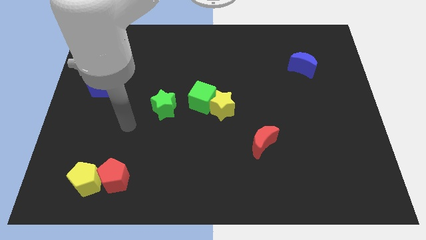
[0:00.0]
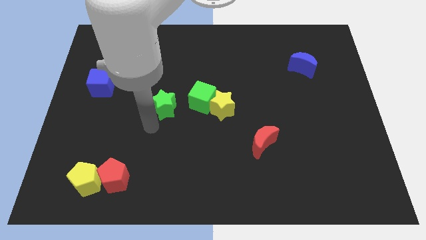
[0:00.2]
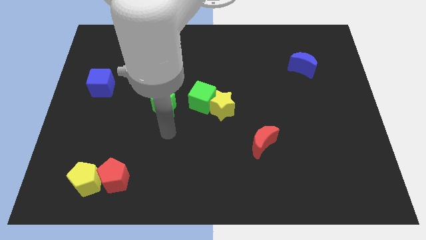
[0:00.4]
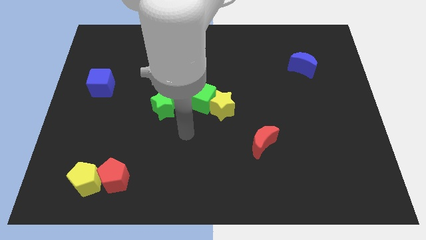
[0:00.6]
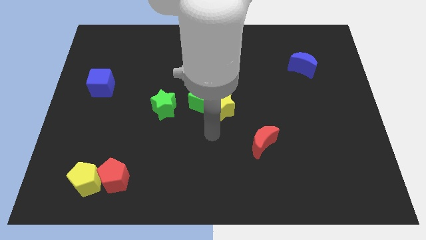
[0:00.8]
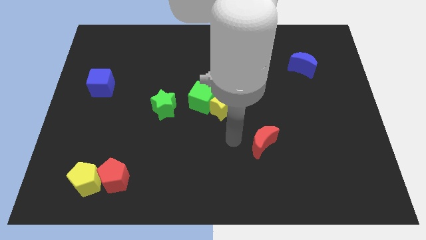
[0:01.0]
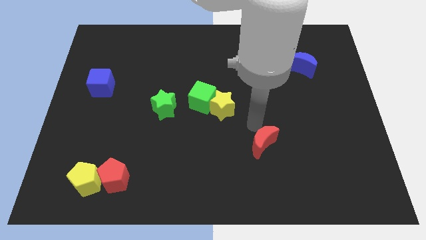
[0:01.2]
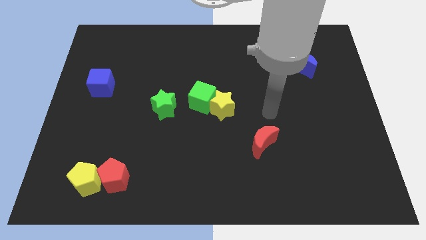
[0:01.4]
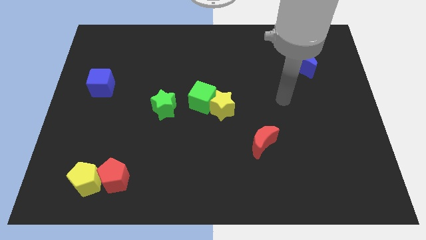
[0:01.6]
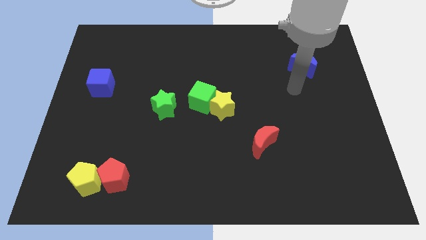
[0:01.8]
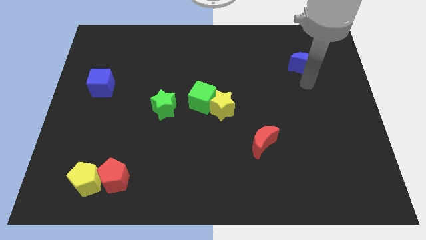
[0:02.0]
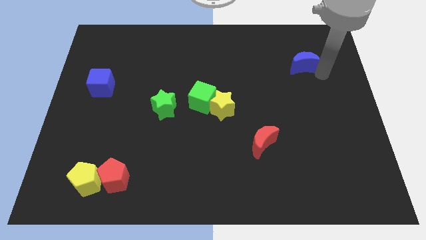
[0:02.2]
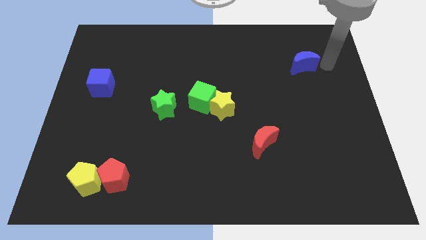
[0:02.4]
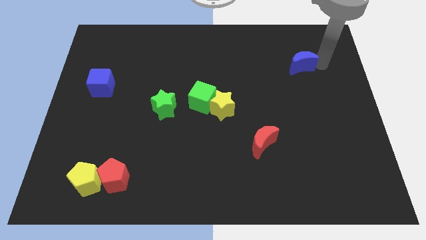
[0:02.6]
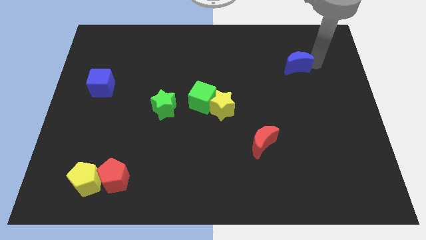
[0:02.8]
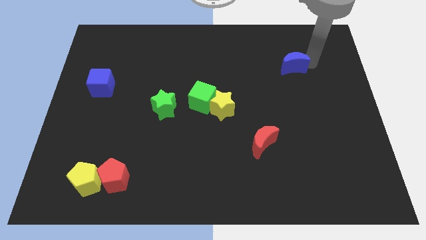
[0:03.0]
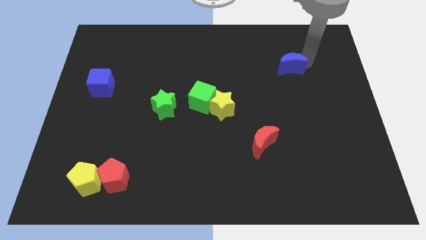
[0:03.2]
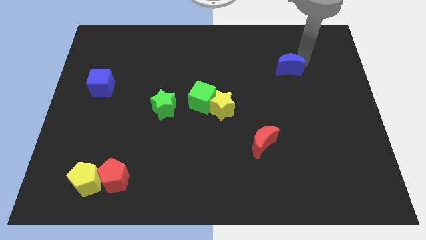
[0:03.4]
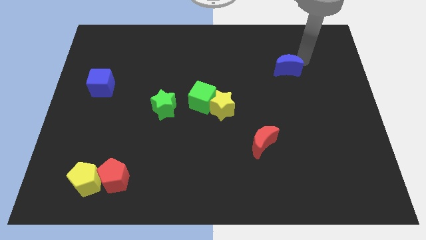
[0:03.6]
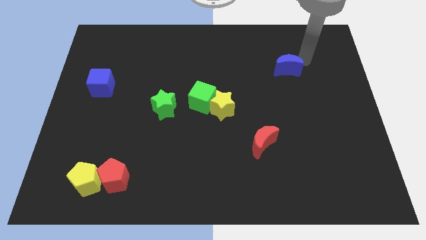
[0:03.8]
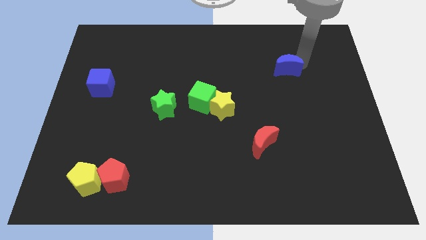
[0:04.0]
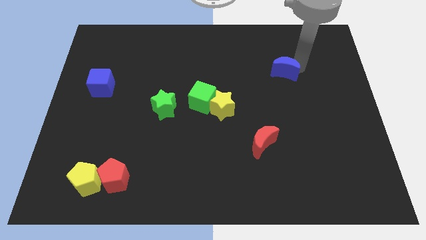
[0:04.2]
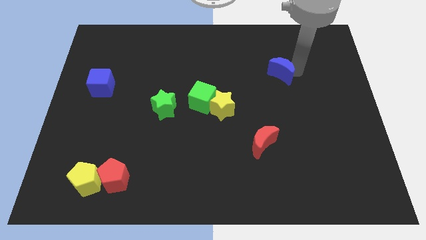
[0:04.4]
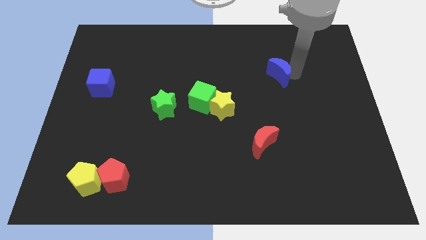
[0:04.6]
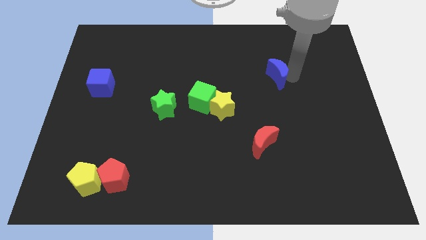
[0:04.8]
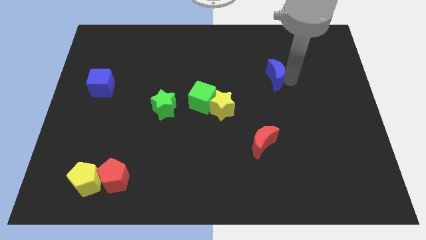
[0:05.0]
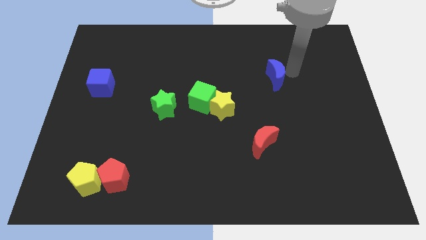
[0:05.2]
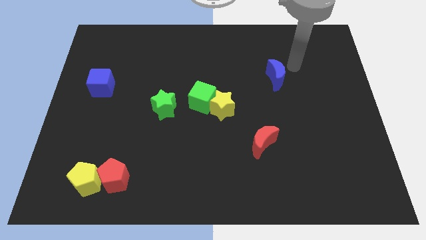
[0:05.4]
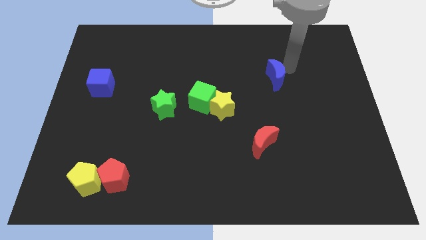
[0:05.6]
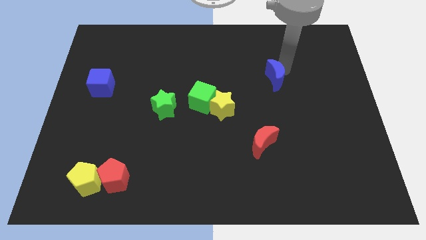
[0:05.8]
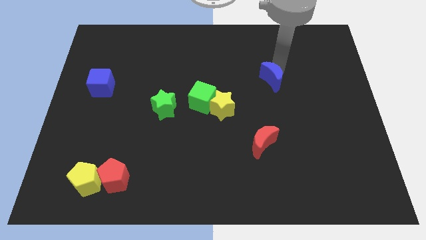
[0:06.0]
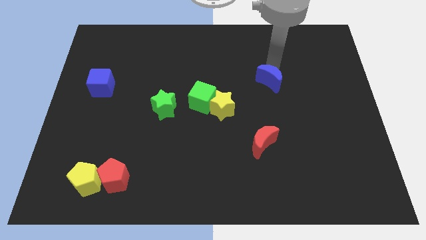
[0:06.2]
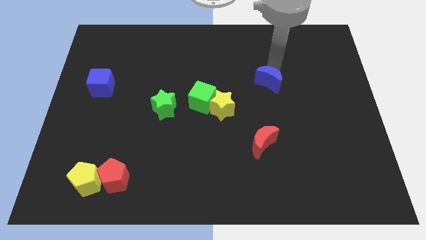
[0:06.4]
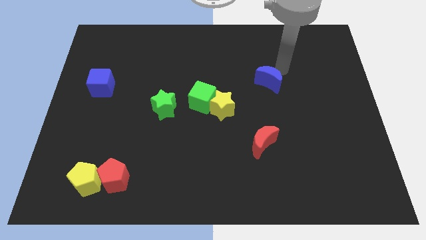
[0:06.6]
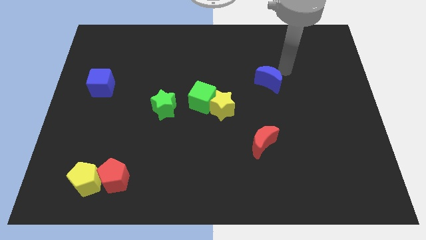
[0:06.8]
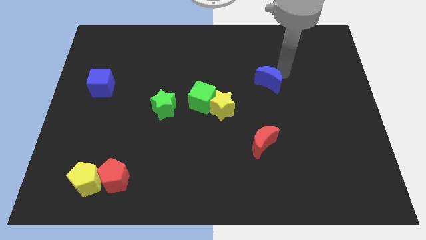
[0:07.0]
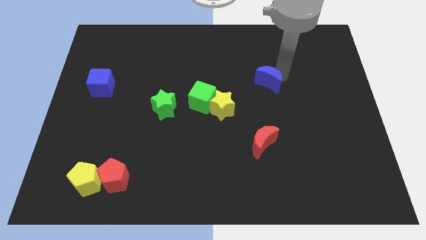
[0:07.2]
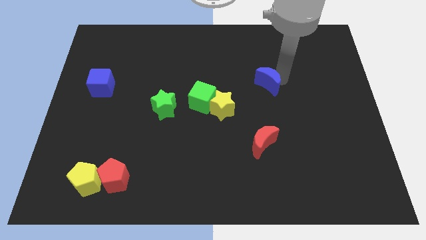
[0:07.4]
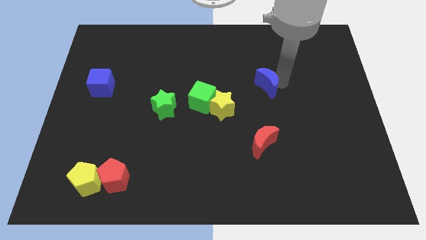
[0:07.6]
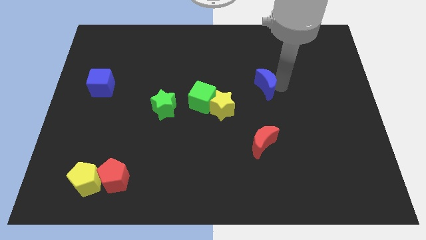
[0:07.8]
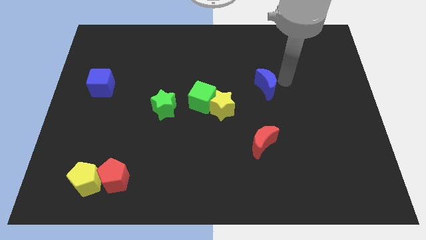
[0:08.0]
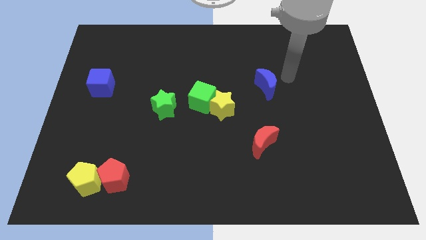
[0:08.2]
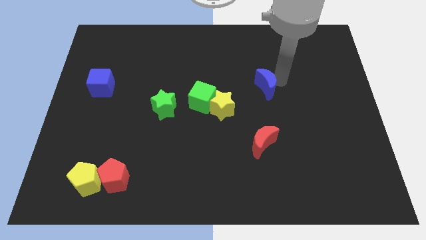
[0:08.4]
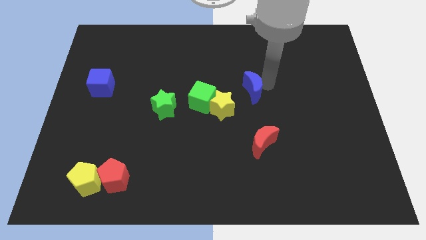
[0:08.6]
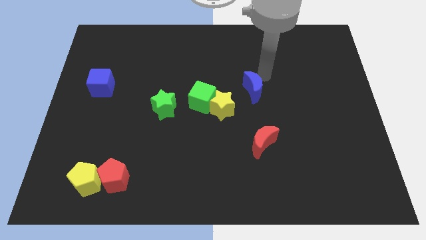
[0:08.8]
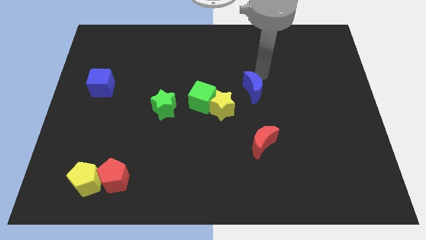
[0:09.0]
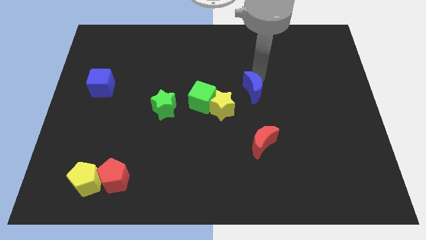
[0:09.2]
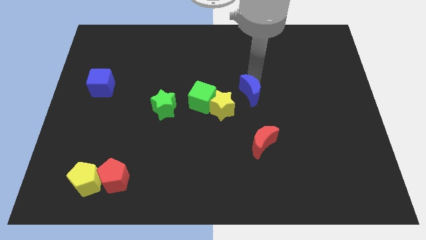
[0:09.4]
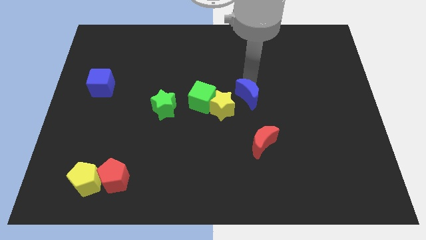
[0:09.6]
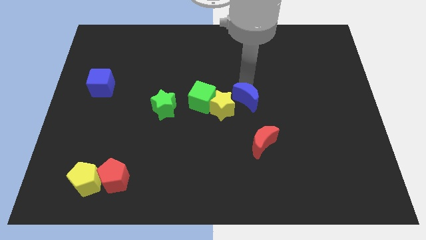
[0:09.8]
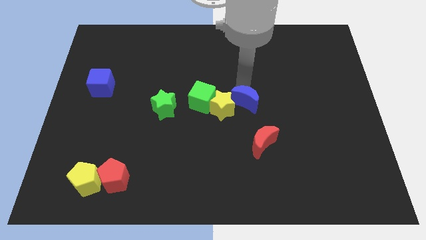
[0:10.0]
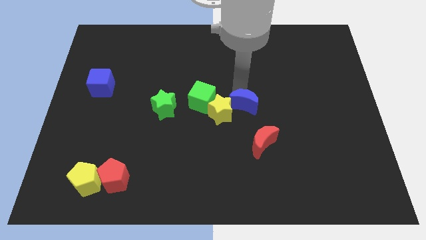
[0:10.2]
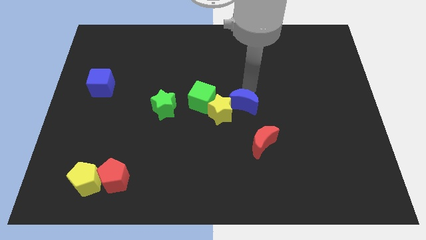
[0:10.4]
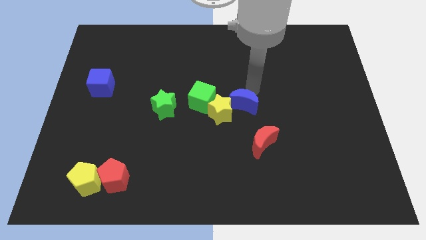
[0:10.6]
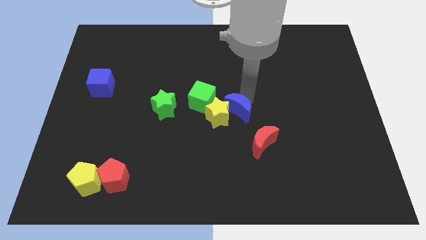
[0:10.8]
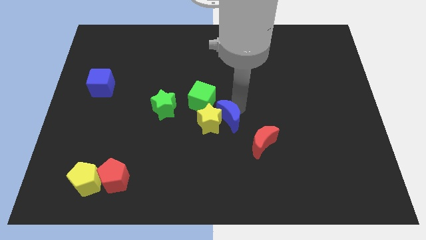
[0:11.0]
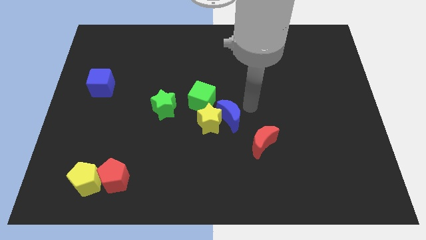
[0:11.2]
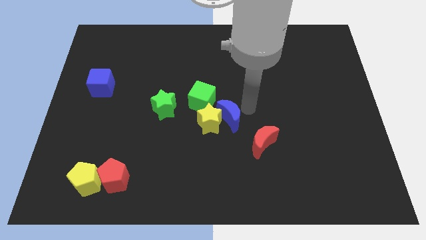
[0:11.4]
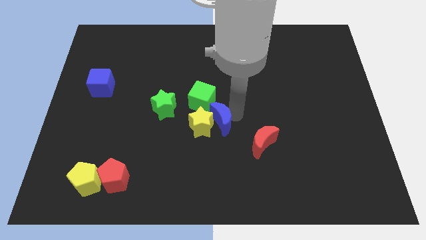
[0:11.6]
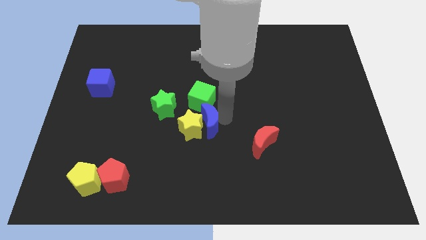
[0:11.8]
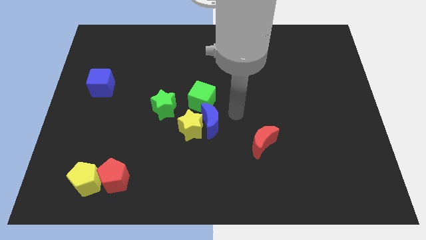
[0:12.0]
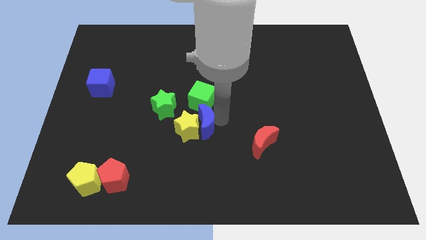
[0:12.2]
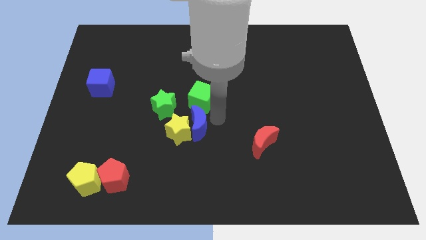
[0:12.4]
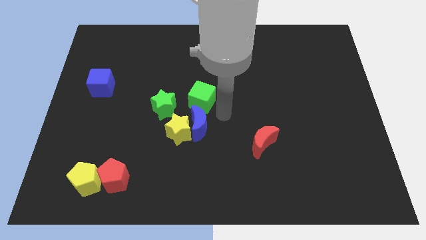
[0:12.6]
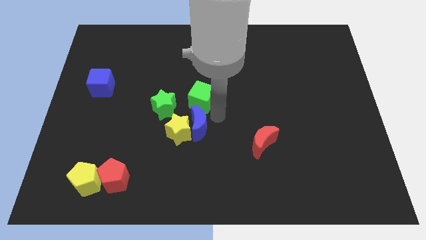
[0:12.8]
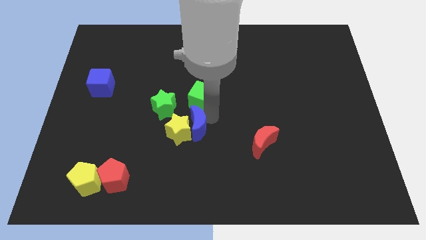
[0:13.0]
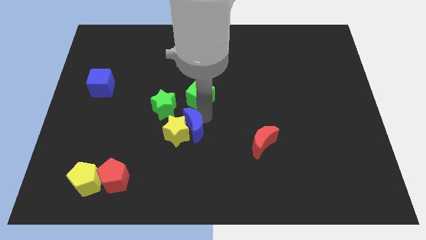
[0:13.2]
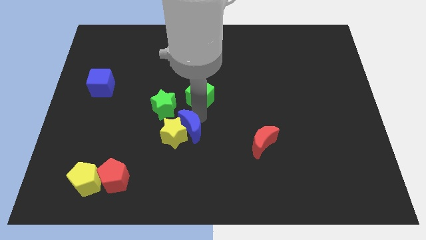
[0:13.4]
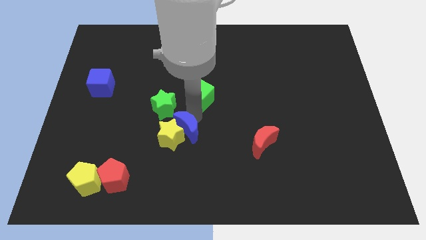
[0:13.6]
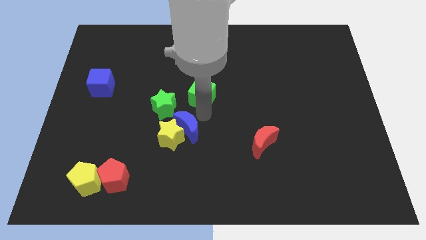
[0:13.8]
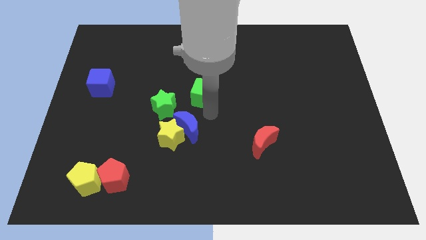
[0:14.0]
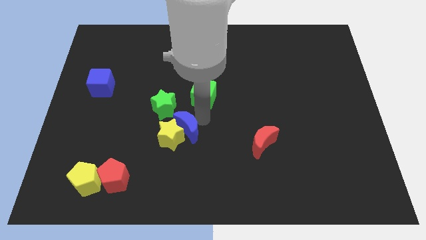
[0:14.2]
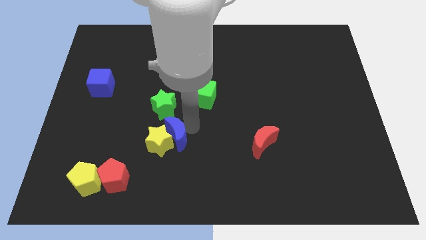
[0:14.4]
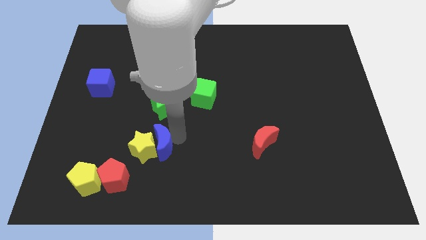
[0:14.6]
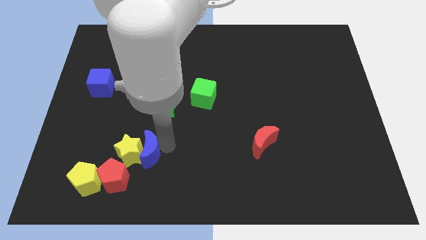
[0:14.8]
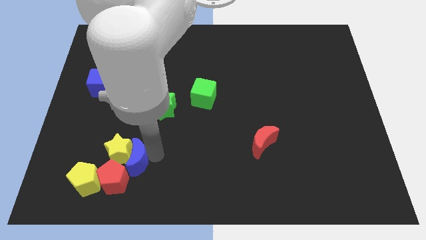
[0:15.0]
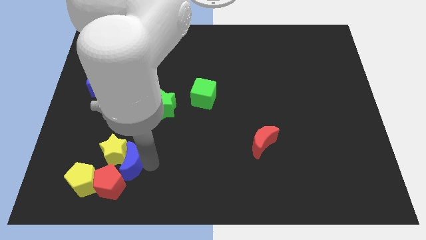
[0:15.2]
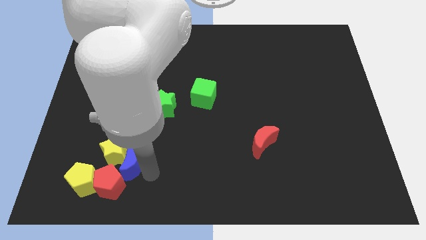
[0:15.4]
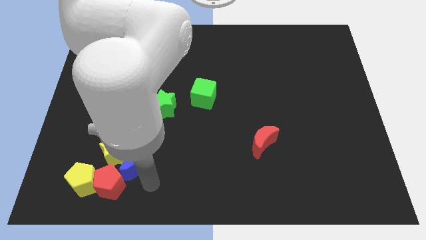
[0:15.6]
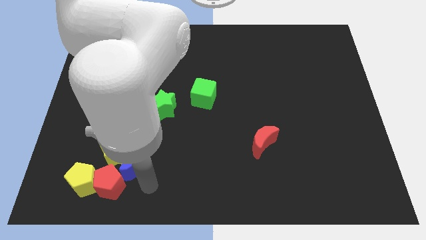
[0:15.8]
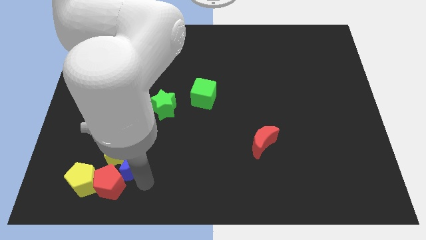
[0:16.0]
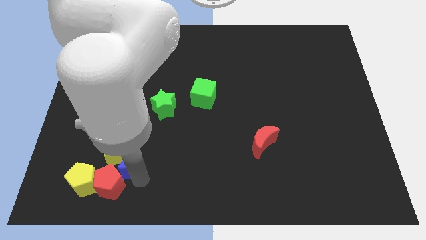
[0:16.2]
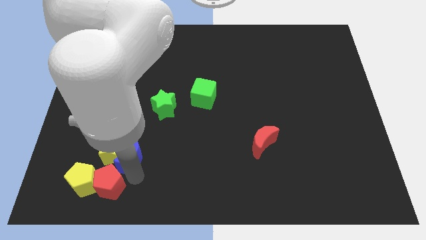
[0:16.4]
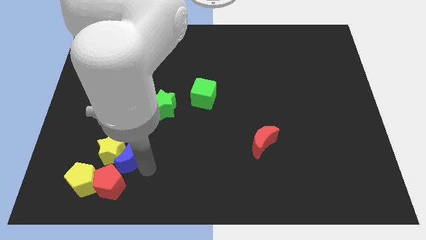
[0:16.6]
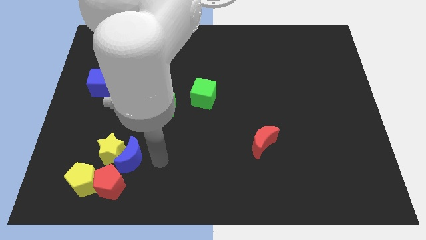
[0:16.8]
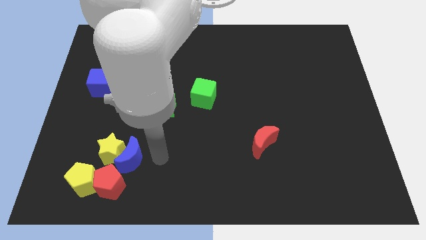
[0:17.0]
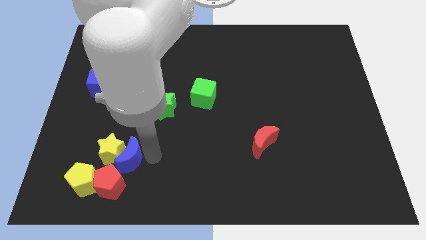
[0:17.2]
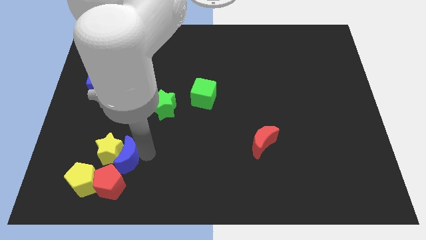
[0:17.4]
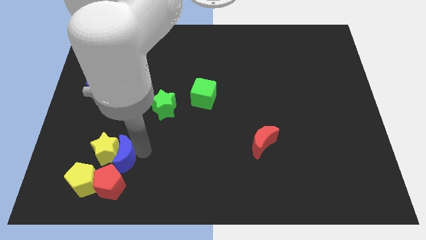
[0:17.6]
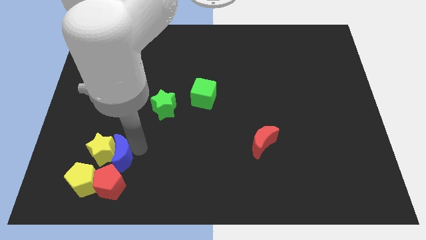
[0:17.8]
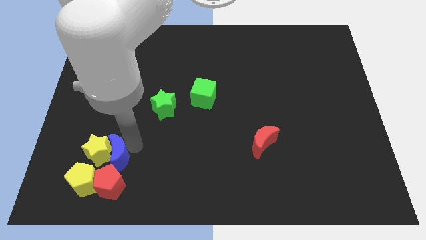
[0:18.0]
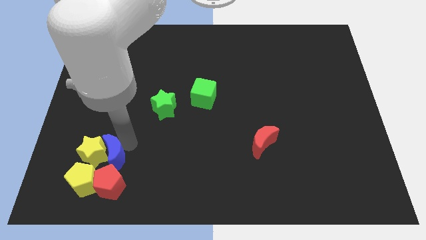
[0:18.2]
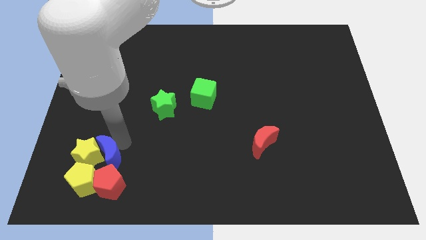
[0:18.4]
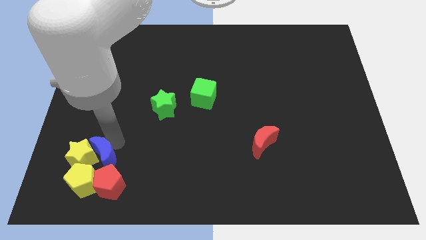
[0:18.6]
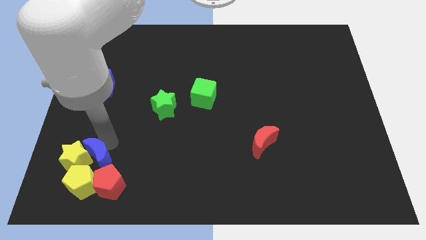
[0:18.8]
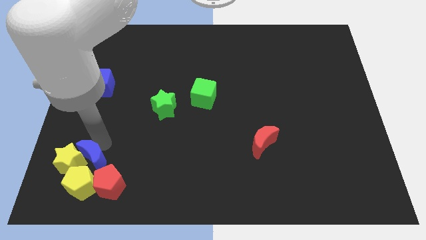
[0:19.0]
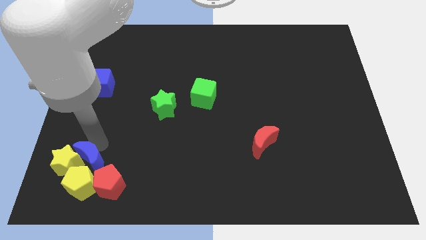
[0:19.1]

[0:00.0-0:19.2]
put the blue moon next to the yellow pentagon
